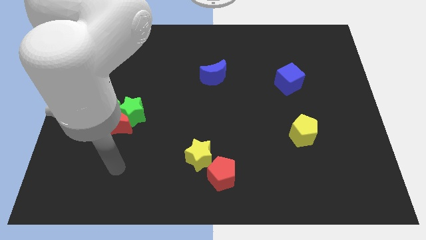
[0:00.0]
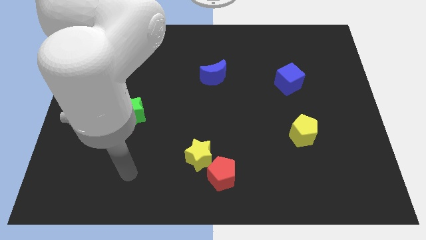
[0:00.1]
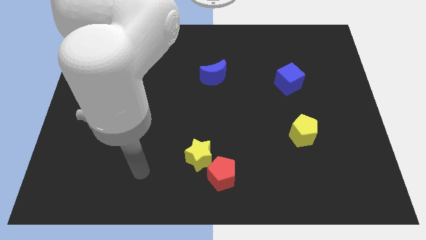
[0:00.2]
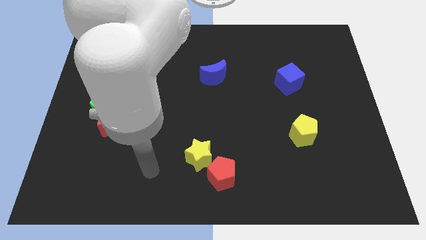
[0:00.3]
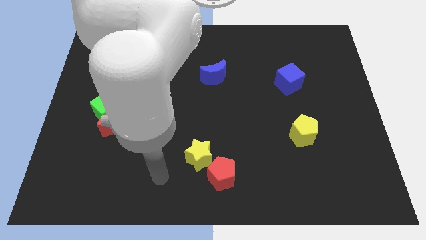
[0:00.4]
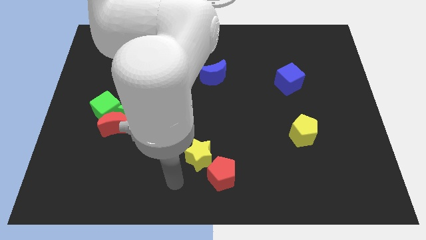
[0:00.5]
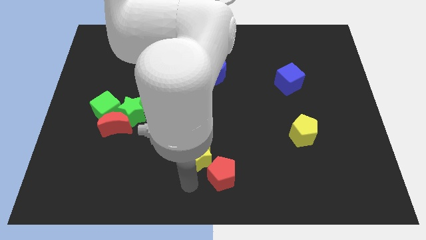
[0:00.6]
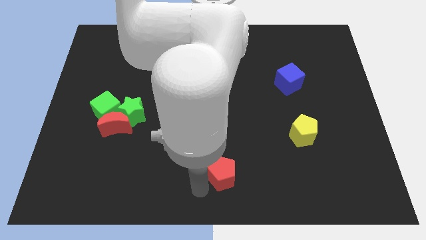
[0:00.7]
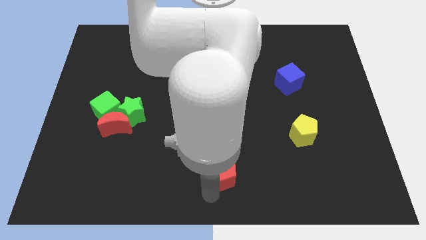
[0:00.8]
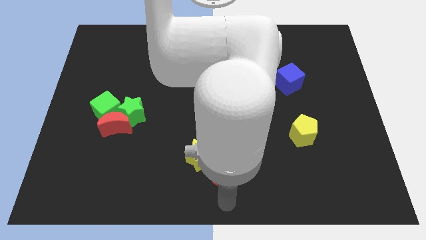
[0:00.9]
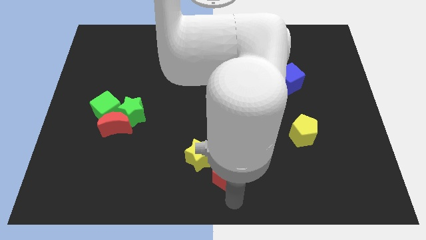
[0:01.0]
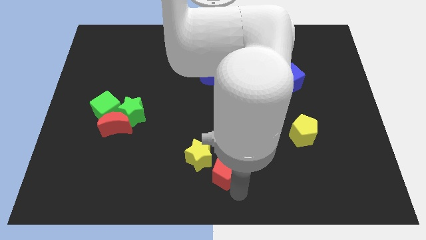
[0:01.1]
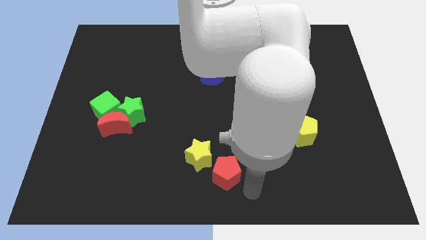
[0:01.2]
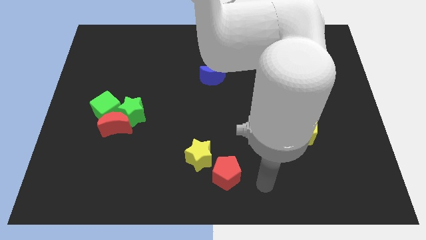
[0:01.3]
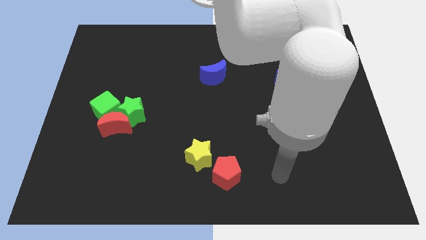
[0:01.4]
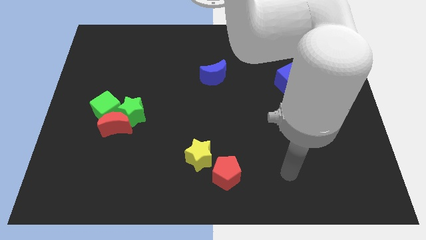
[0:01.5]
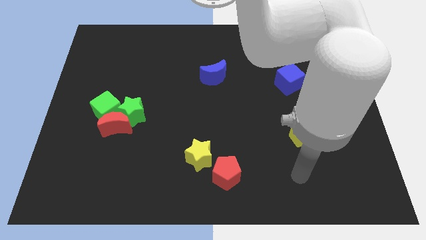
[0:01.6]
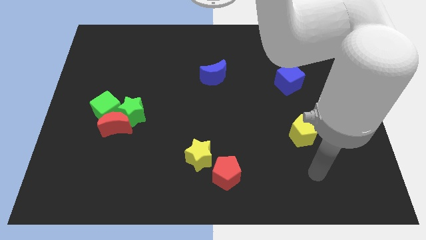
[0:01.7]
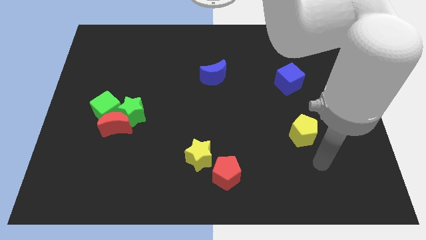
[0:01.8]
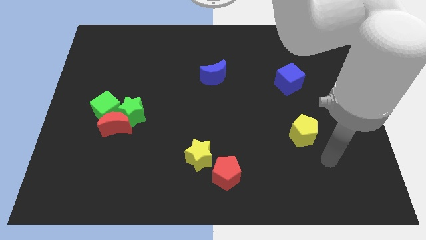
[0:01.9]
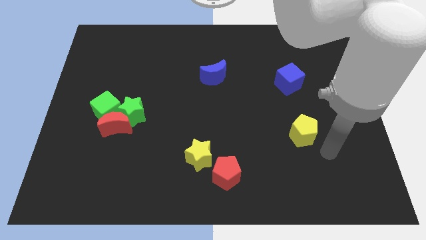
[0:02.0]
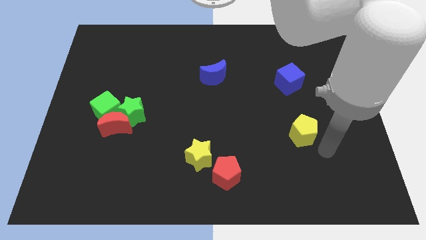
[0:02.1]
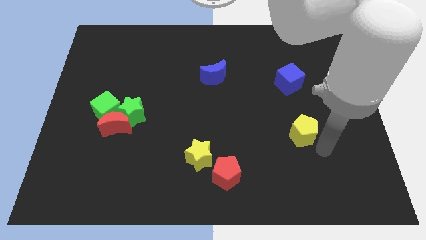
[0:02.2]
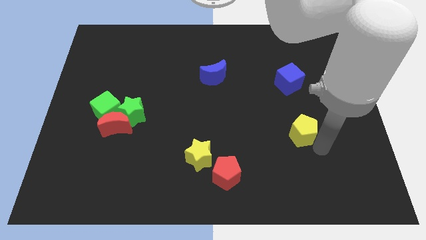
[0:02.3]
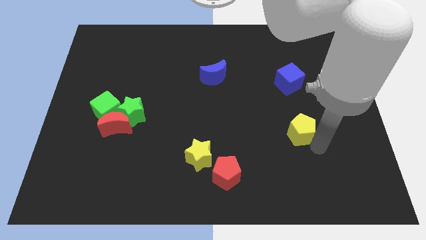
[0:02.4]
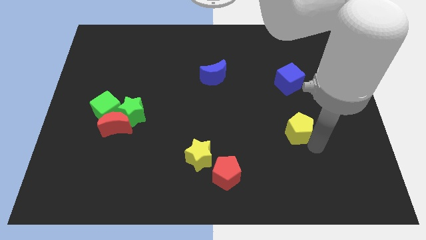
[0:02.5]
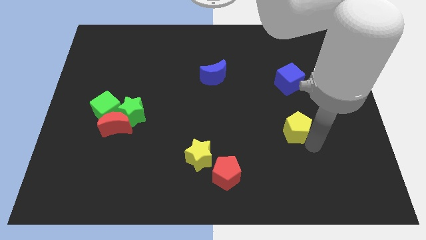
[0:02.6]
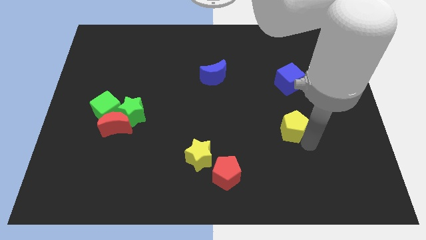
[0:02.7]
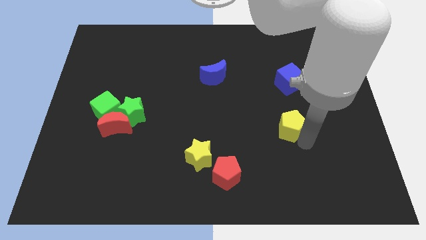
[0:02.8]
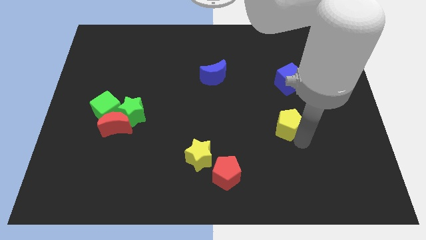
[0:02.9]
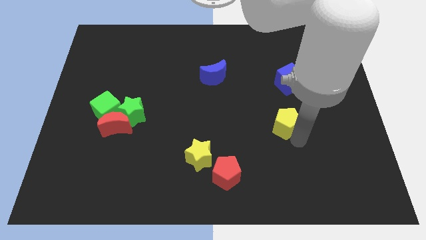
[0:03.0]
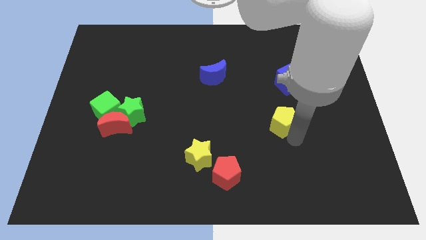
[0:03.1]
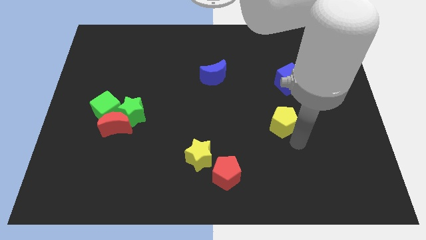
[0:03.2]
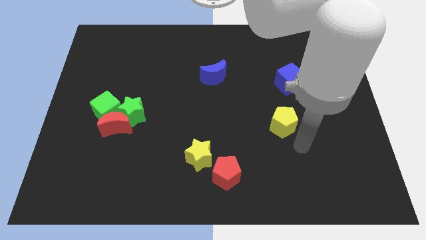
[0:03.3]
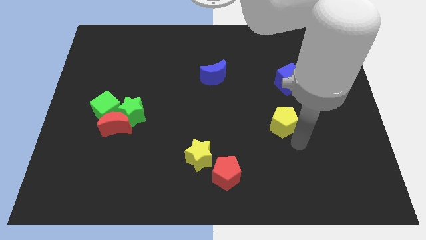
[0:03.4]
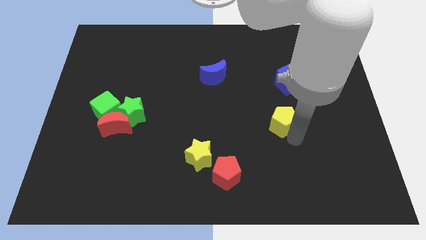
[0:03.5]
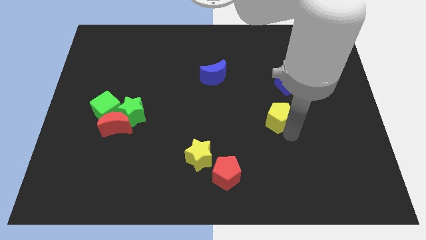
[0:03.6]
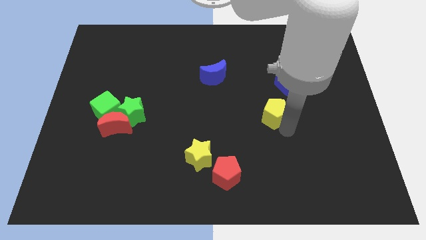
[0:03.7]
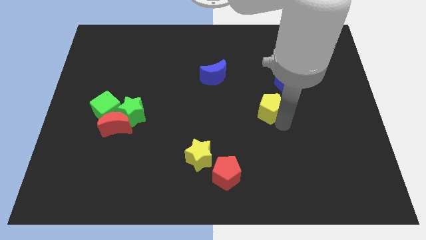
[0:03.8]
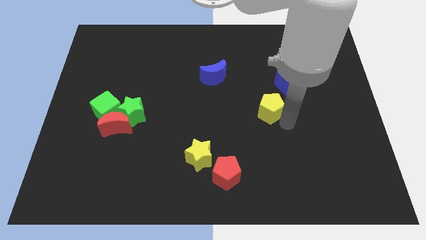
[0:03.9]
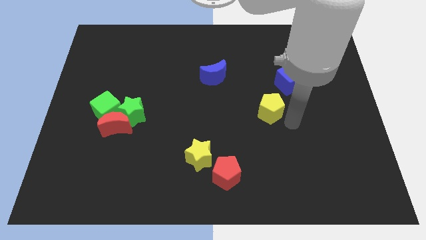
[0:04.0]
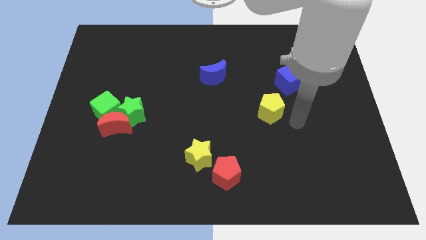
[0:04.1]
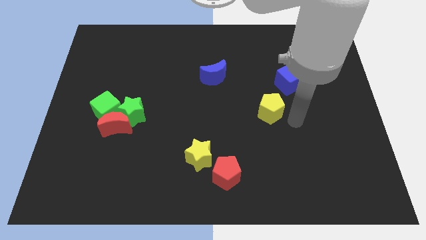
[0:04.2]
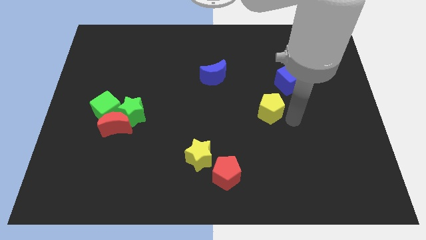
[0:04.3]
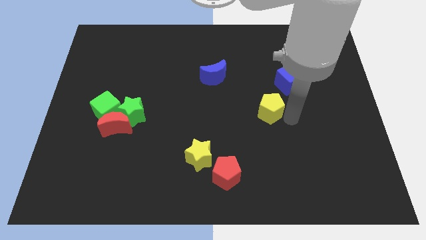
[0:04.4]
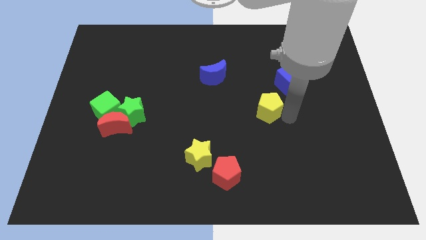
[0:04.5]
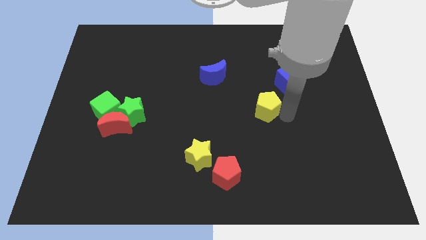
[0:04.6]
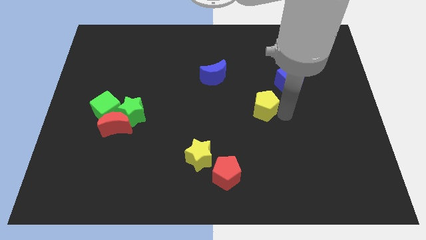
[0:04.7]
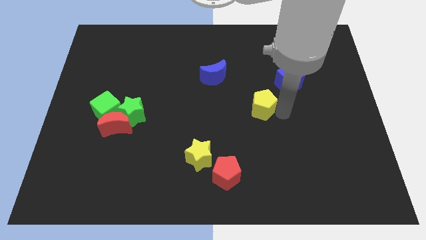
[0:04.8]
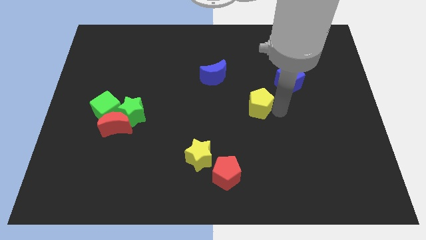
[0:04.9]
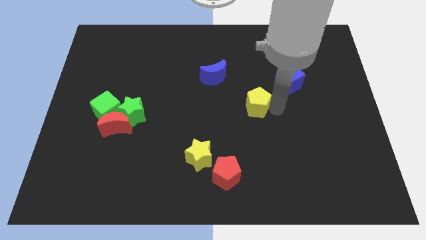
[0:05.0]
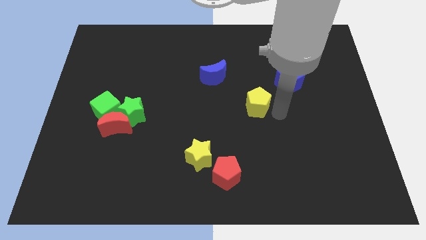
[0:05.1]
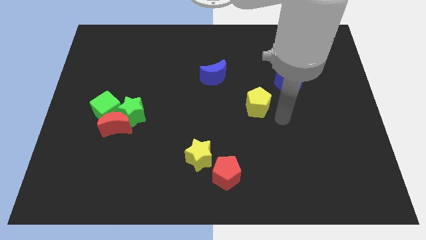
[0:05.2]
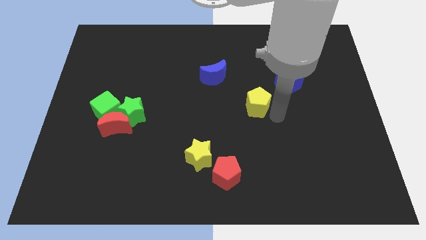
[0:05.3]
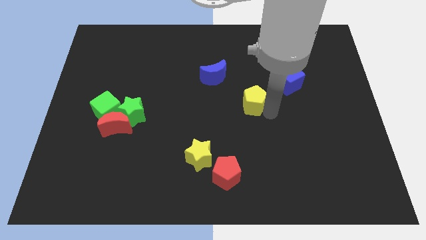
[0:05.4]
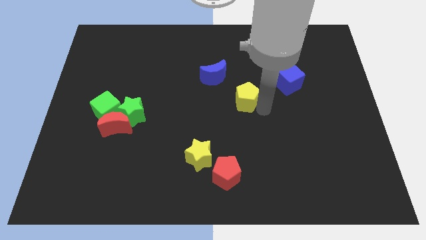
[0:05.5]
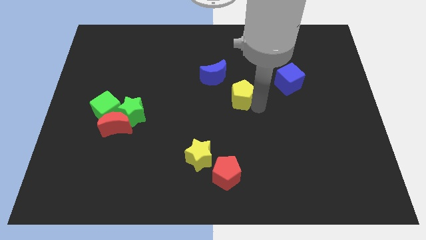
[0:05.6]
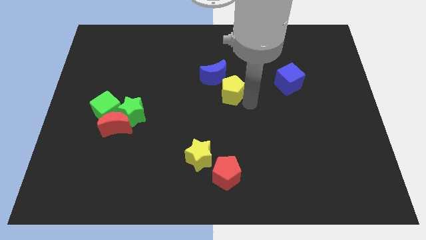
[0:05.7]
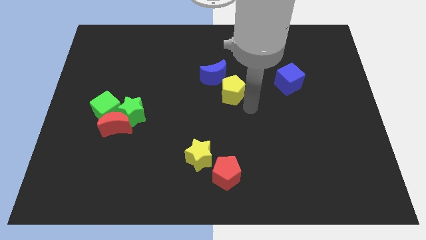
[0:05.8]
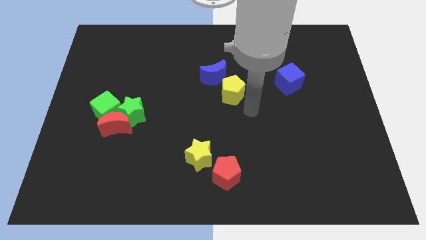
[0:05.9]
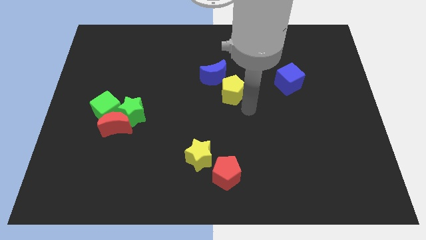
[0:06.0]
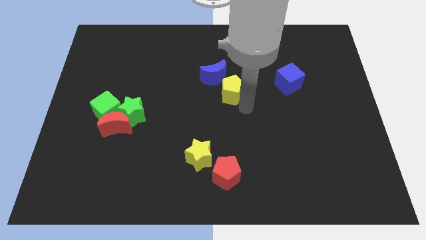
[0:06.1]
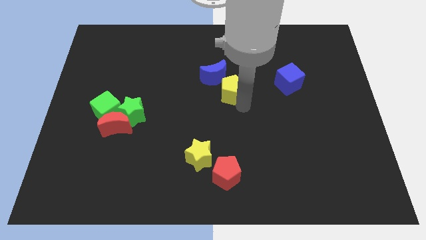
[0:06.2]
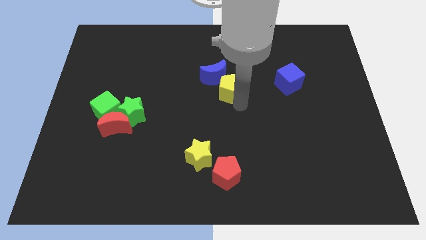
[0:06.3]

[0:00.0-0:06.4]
push the yellow pentagon close to the blue moon

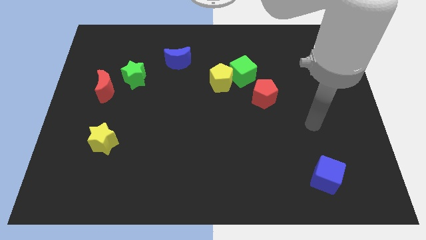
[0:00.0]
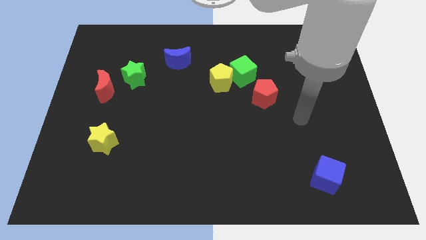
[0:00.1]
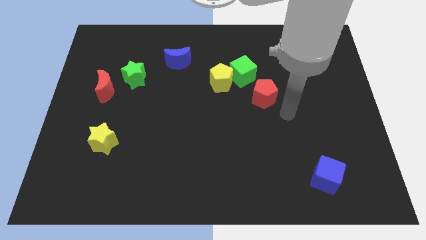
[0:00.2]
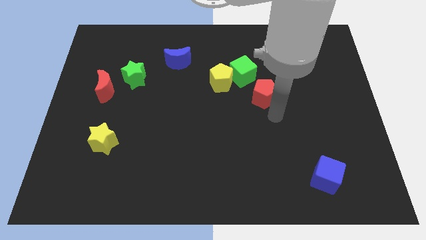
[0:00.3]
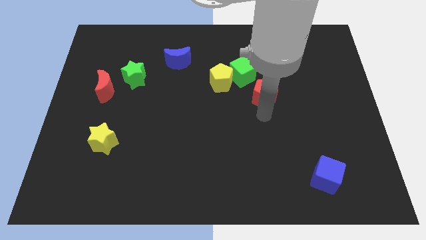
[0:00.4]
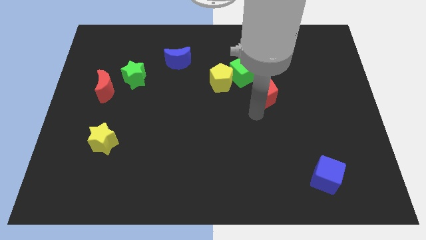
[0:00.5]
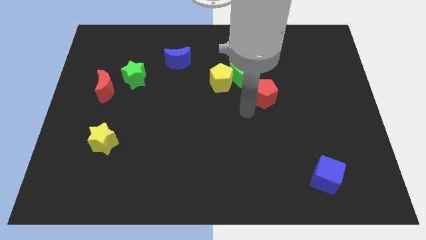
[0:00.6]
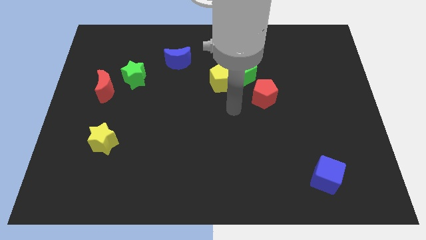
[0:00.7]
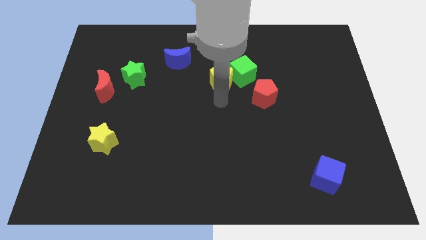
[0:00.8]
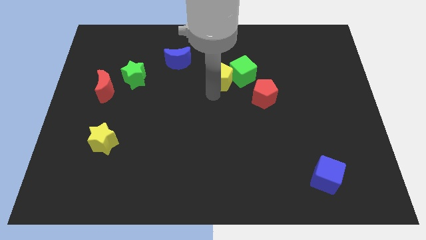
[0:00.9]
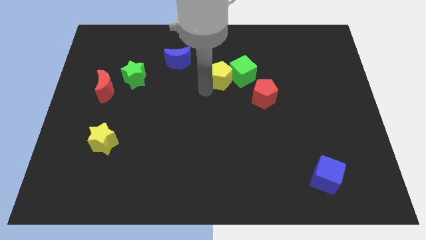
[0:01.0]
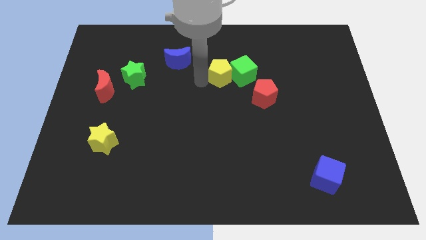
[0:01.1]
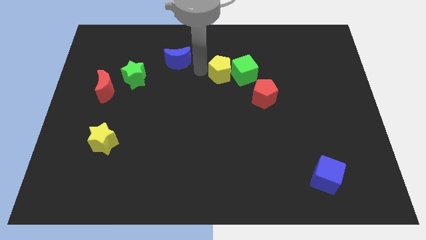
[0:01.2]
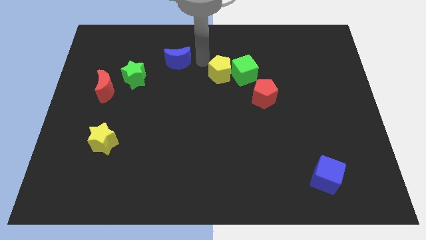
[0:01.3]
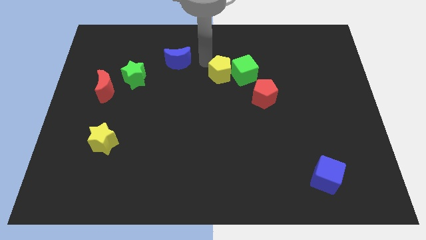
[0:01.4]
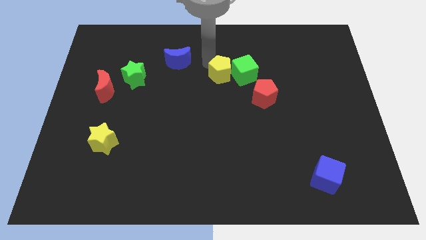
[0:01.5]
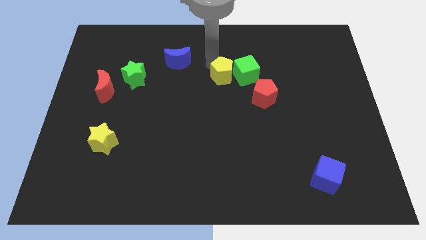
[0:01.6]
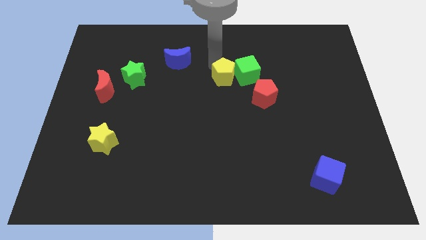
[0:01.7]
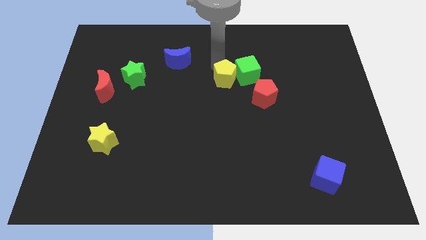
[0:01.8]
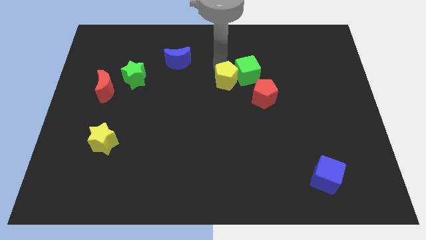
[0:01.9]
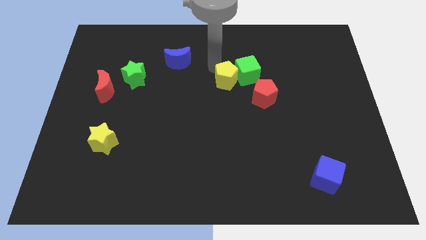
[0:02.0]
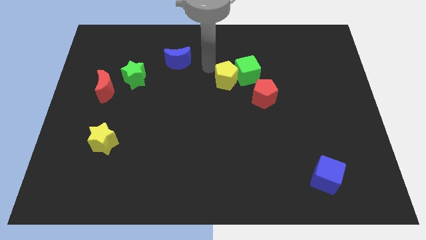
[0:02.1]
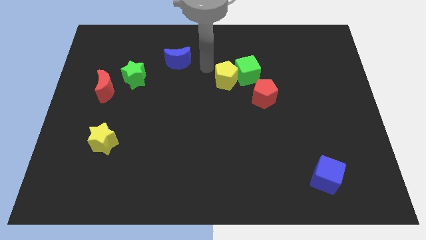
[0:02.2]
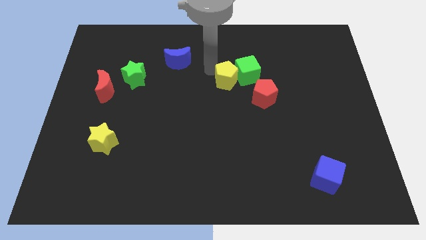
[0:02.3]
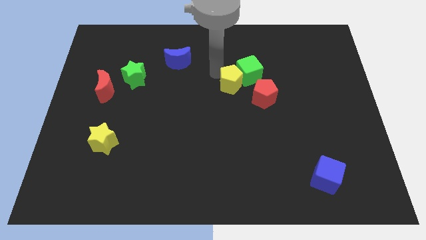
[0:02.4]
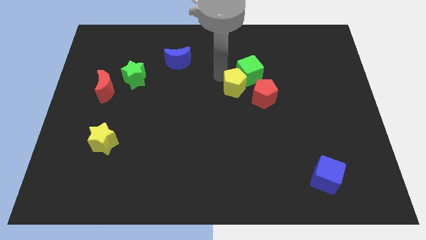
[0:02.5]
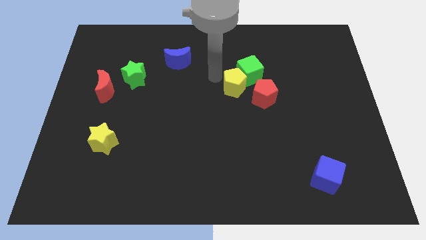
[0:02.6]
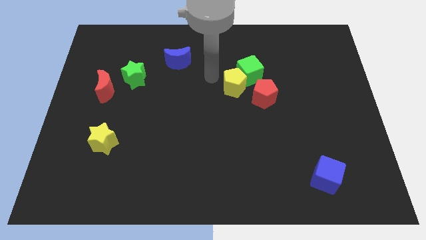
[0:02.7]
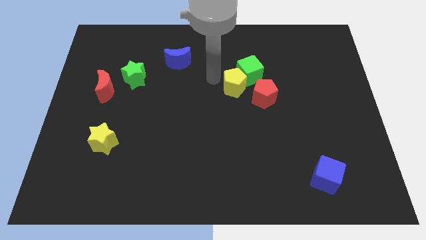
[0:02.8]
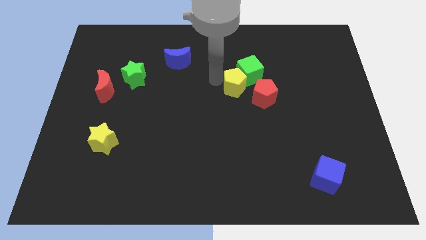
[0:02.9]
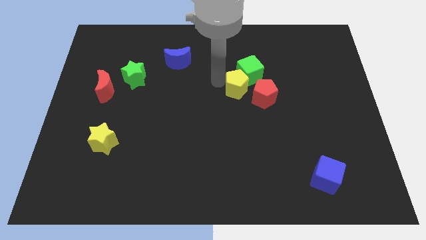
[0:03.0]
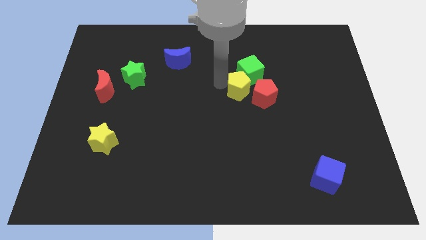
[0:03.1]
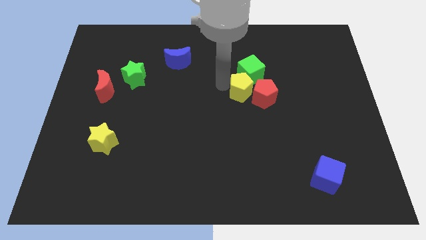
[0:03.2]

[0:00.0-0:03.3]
put the yellow pentagon towards the red pentagon
